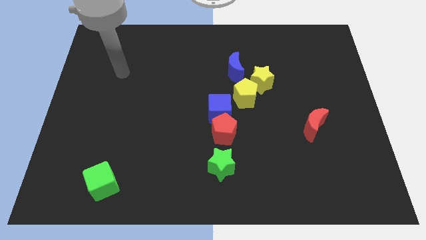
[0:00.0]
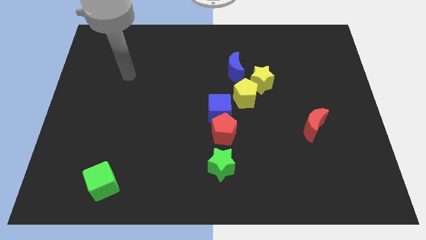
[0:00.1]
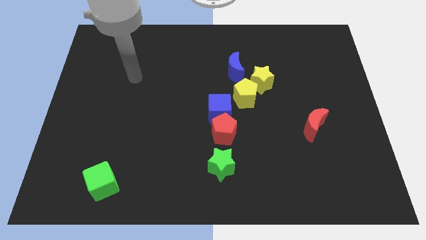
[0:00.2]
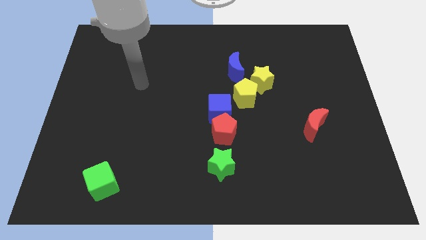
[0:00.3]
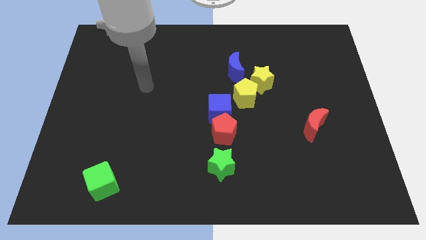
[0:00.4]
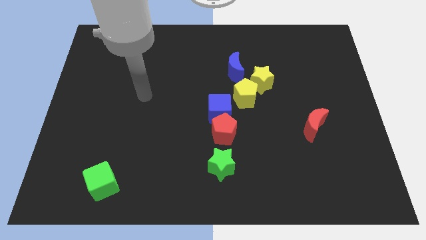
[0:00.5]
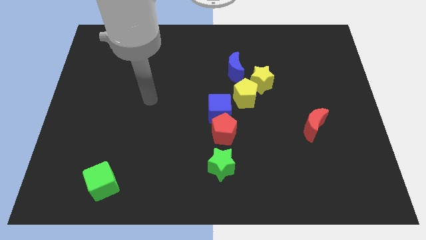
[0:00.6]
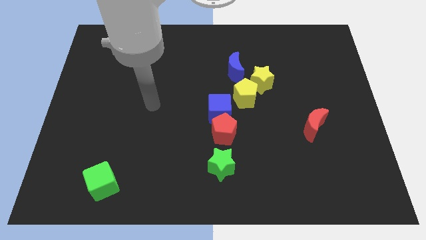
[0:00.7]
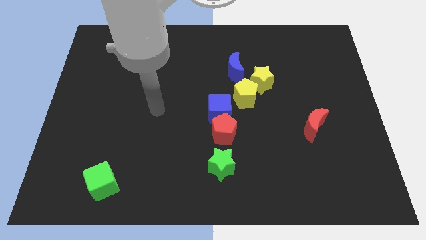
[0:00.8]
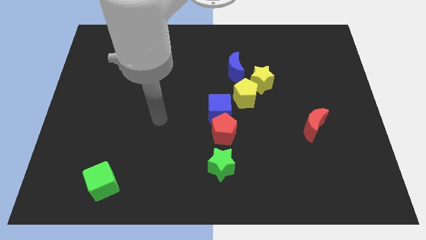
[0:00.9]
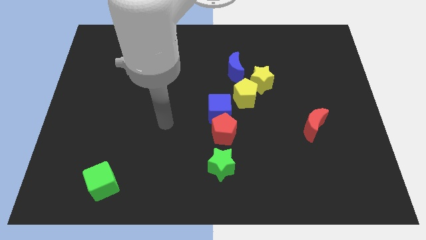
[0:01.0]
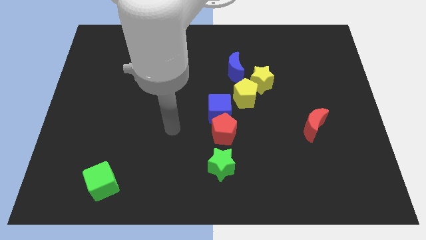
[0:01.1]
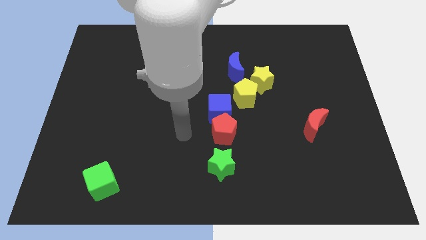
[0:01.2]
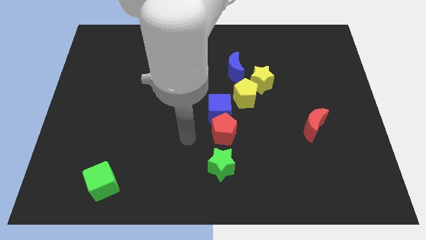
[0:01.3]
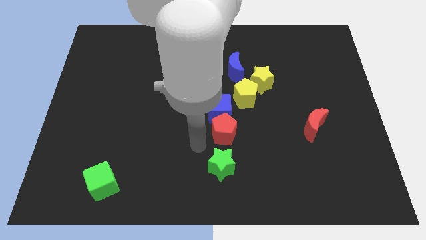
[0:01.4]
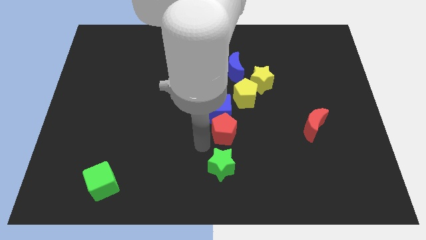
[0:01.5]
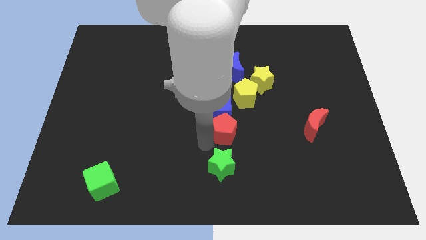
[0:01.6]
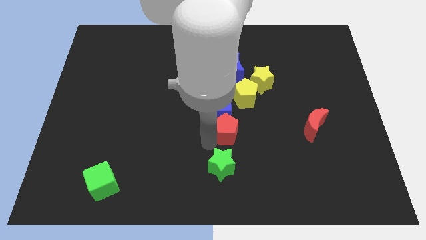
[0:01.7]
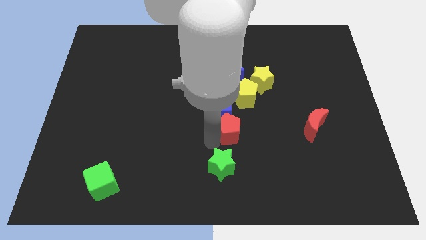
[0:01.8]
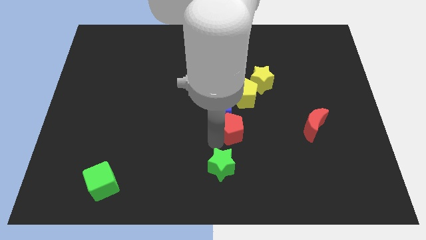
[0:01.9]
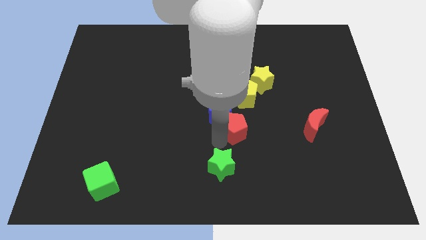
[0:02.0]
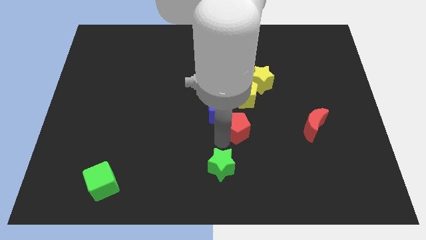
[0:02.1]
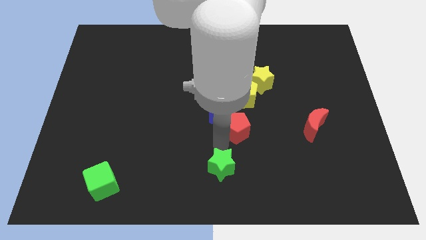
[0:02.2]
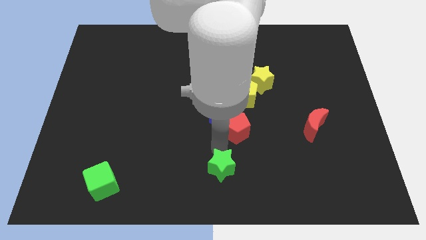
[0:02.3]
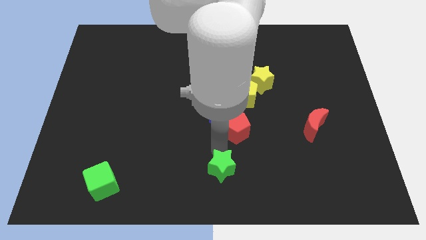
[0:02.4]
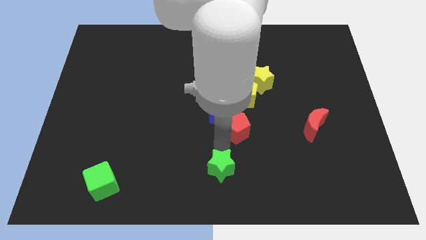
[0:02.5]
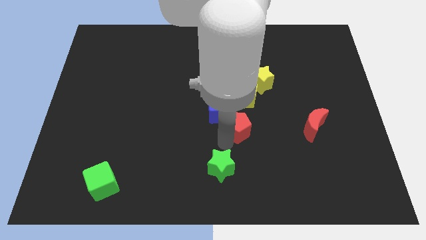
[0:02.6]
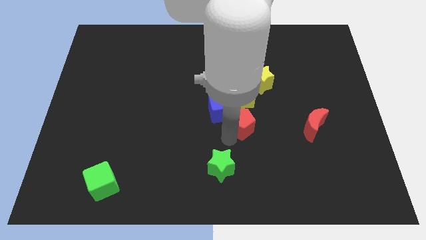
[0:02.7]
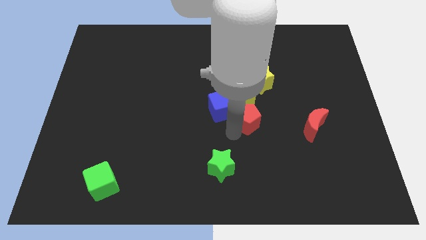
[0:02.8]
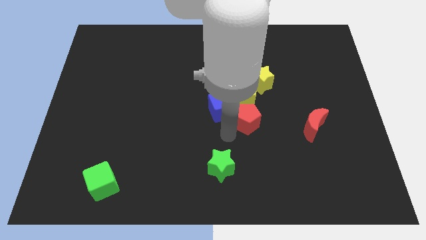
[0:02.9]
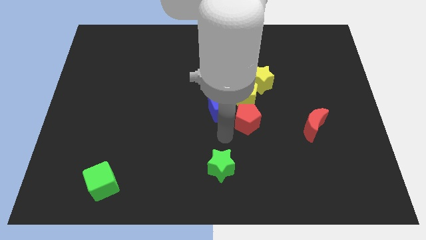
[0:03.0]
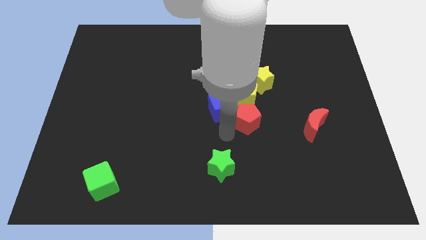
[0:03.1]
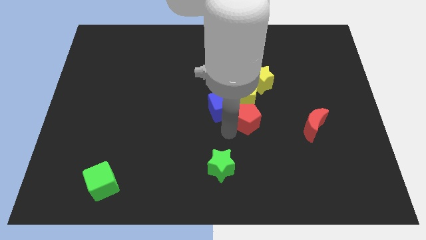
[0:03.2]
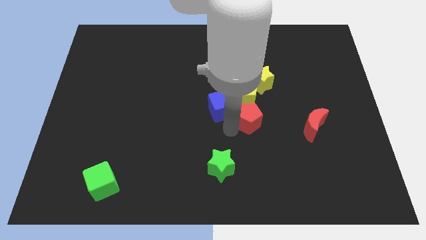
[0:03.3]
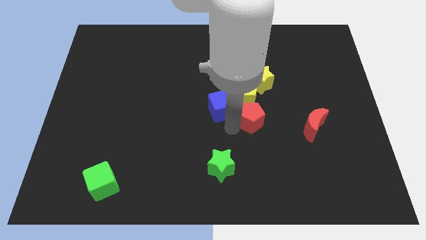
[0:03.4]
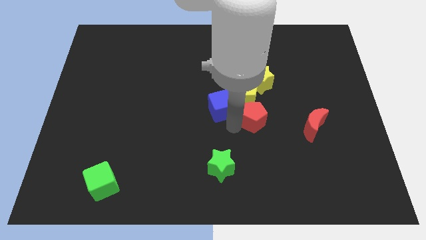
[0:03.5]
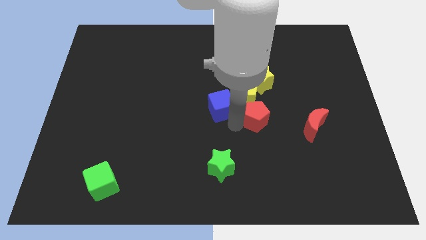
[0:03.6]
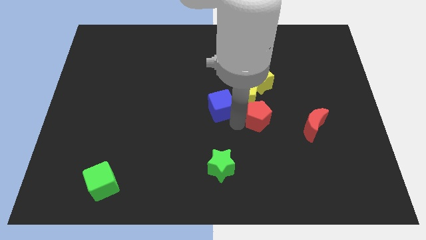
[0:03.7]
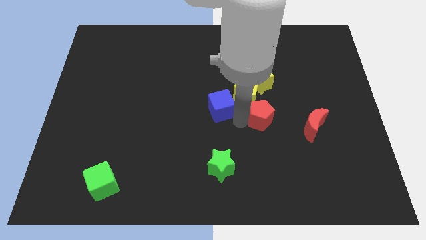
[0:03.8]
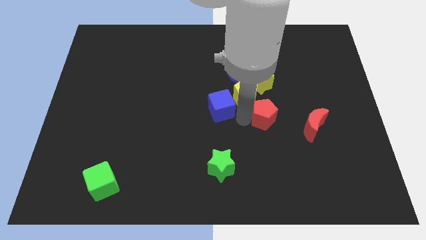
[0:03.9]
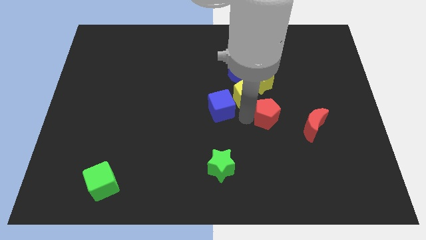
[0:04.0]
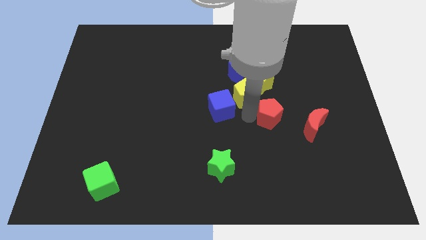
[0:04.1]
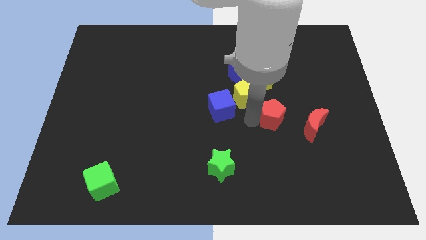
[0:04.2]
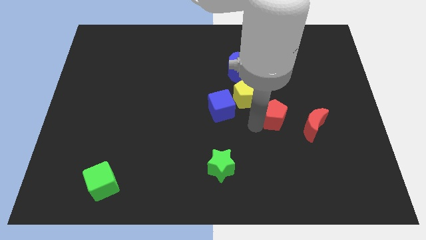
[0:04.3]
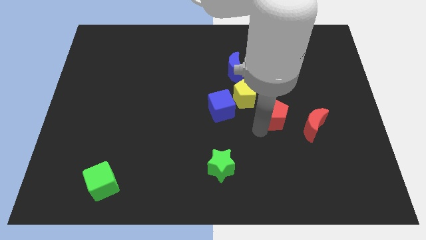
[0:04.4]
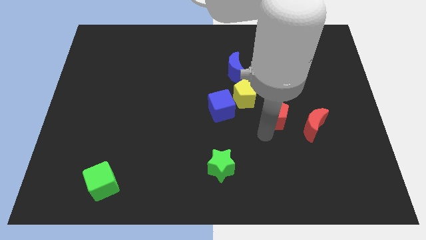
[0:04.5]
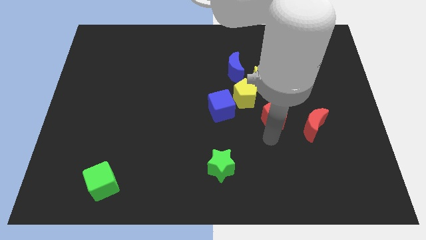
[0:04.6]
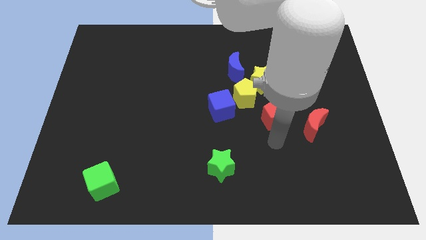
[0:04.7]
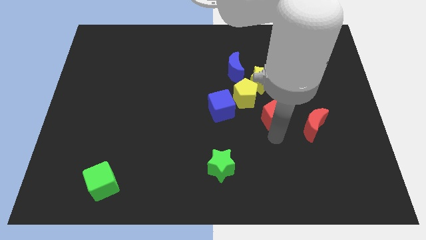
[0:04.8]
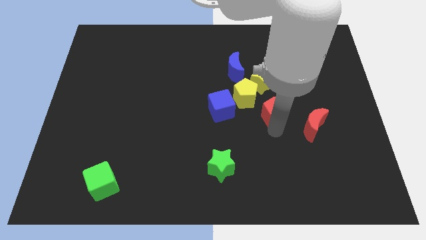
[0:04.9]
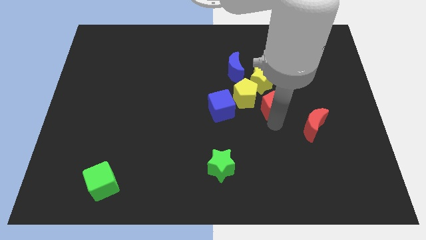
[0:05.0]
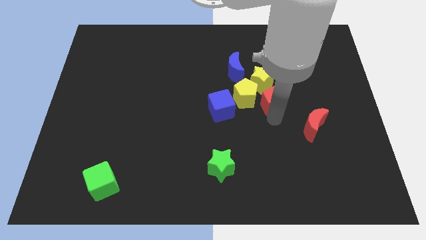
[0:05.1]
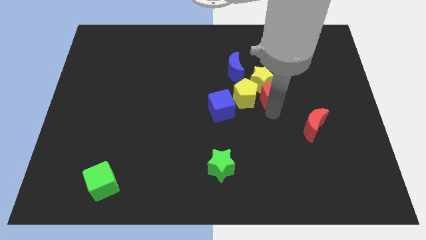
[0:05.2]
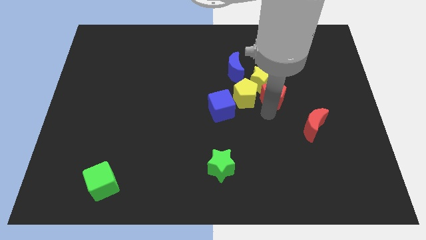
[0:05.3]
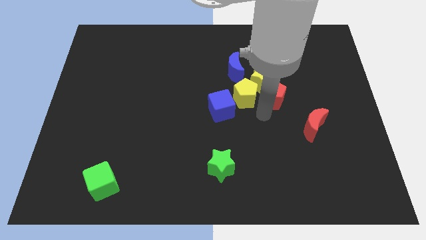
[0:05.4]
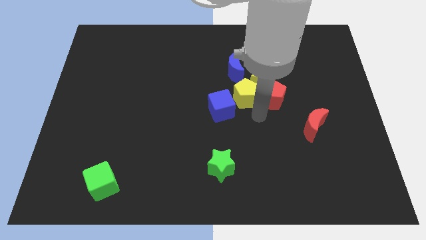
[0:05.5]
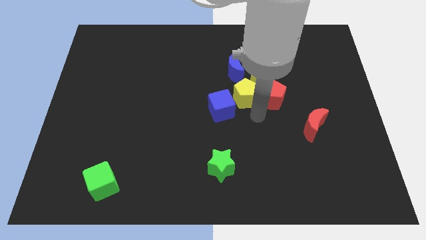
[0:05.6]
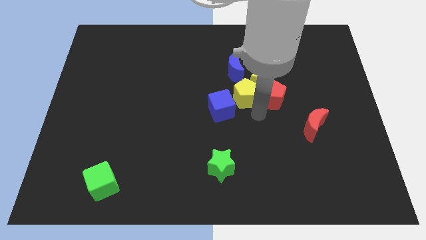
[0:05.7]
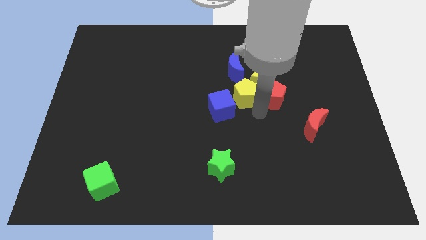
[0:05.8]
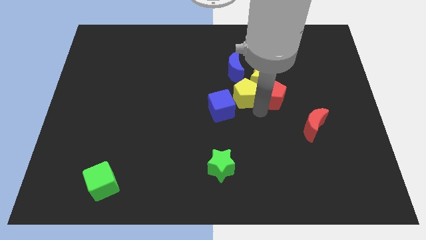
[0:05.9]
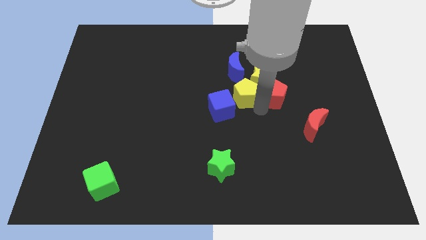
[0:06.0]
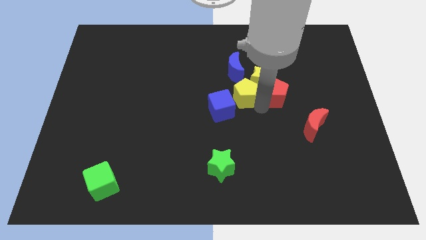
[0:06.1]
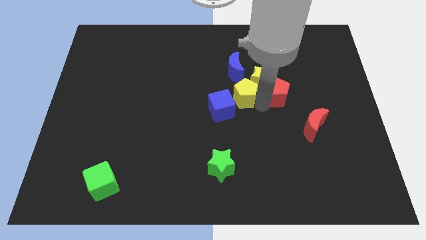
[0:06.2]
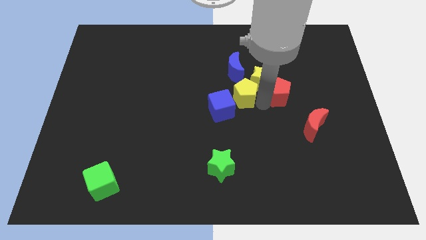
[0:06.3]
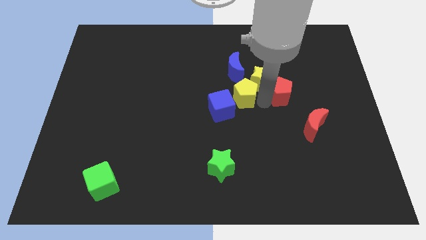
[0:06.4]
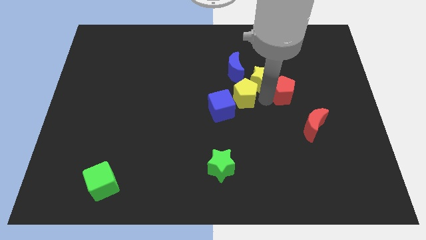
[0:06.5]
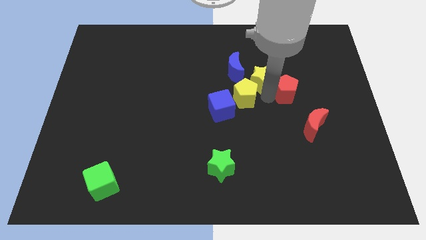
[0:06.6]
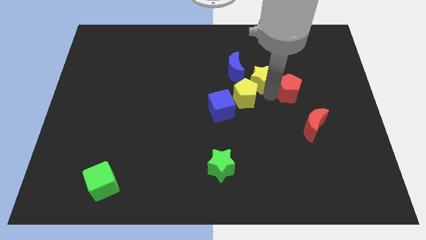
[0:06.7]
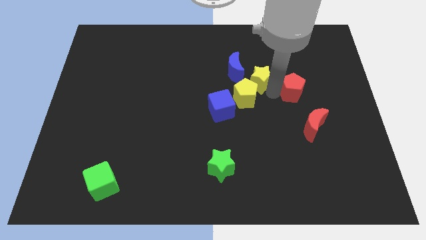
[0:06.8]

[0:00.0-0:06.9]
push the red pentagon up and right

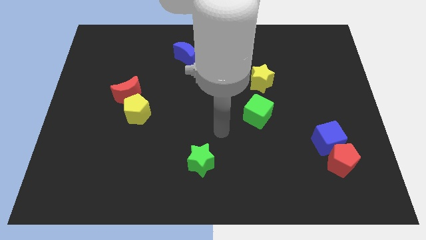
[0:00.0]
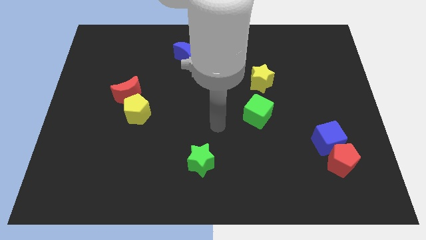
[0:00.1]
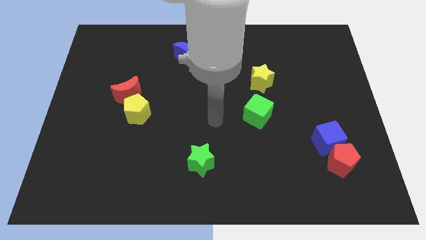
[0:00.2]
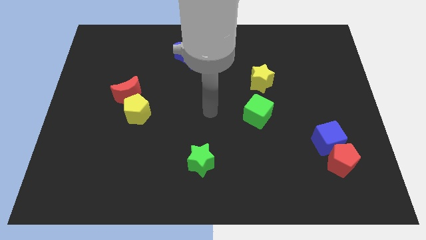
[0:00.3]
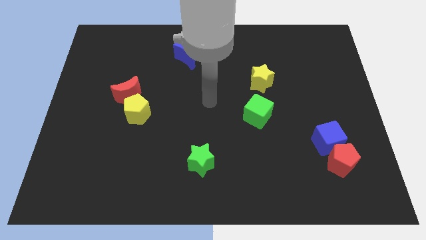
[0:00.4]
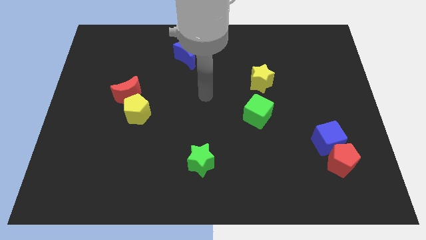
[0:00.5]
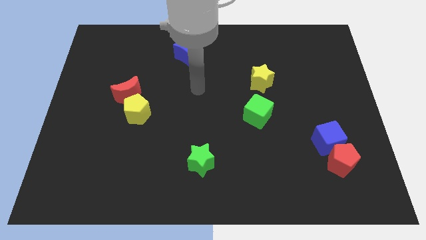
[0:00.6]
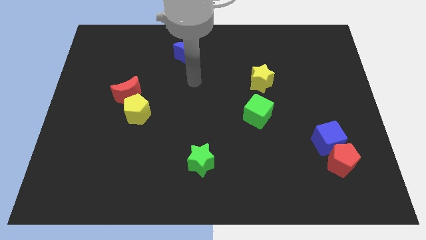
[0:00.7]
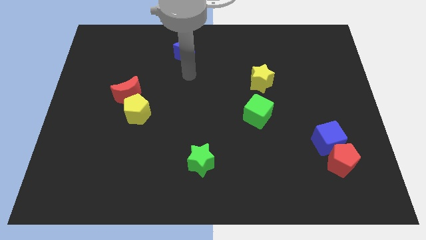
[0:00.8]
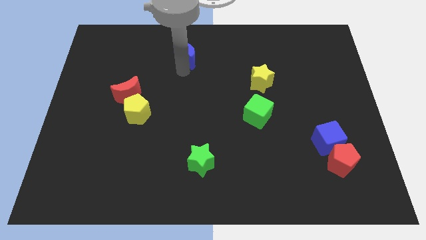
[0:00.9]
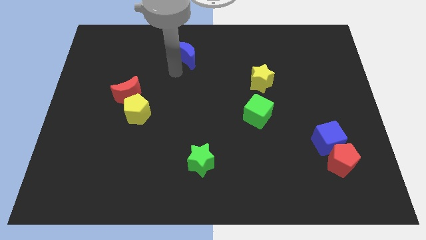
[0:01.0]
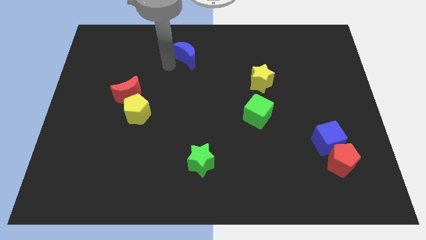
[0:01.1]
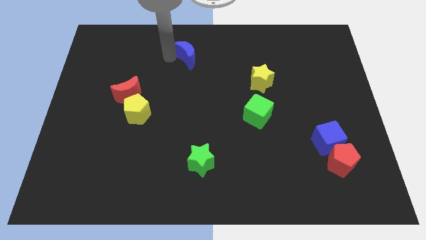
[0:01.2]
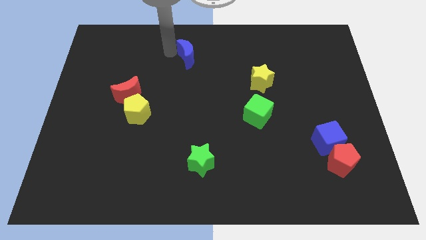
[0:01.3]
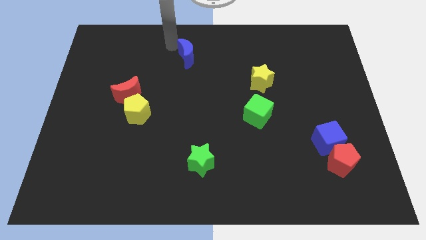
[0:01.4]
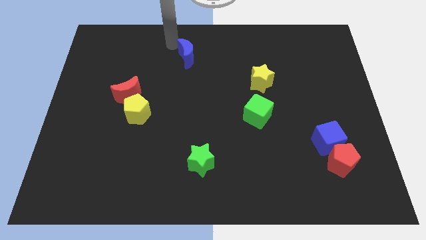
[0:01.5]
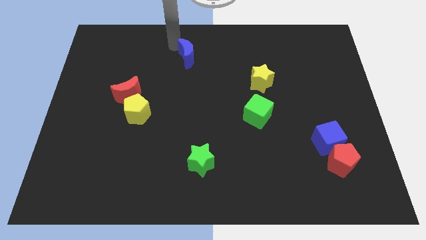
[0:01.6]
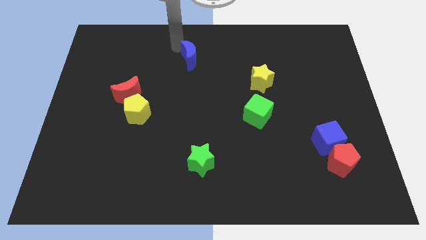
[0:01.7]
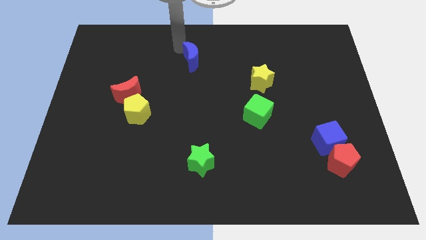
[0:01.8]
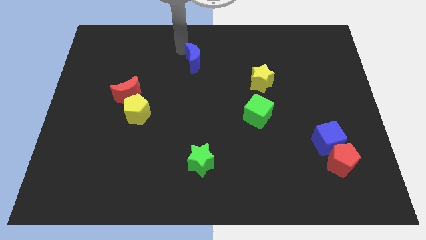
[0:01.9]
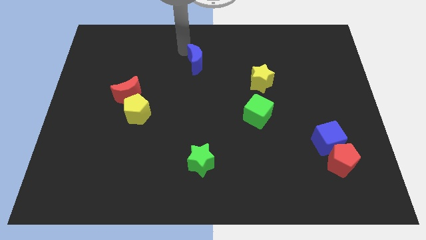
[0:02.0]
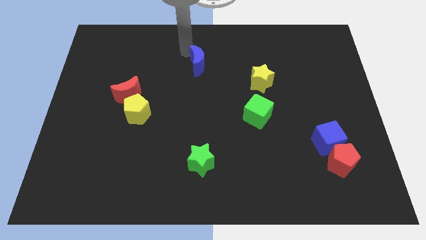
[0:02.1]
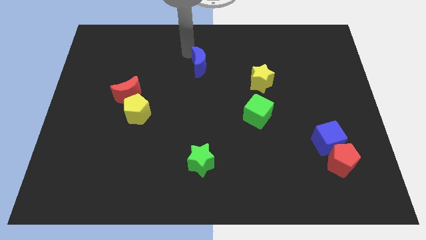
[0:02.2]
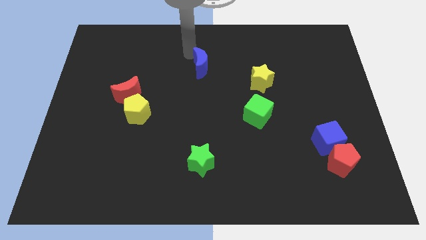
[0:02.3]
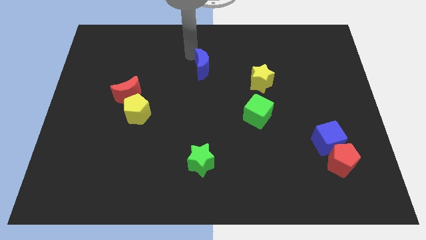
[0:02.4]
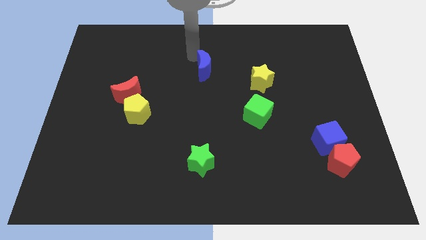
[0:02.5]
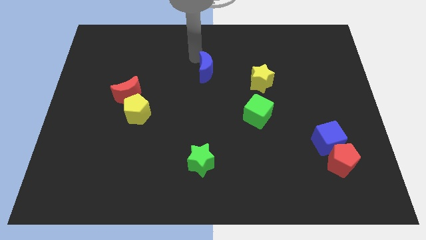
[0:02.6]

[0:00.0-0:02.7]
push the blue moon a little bit down and then right
